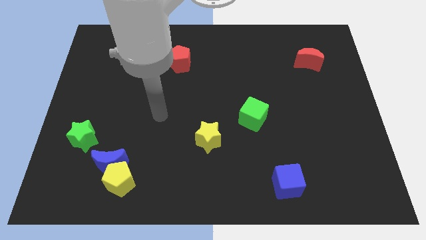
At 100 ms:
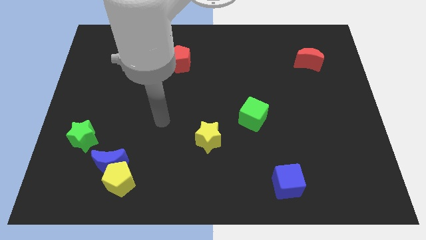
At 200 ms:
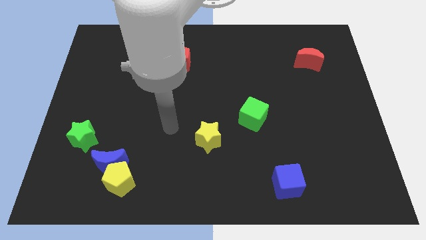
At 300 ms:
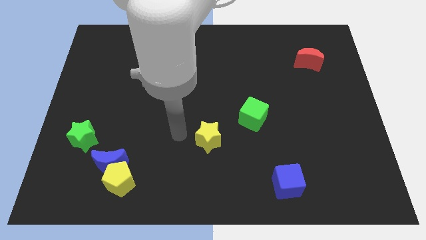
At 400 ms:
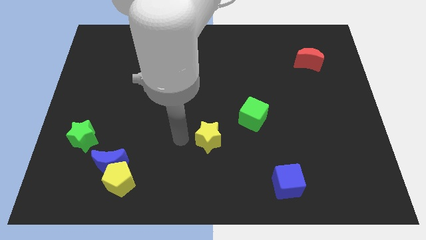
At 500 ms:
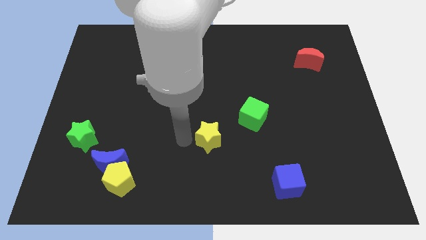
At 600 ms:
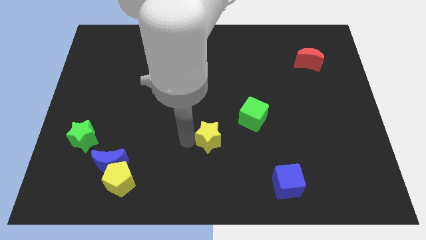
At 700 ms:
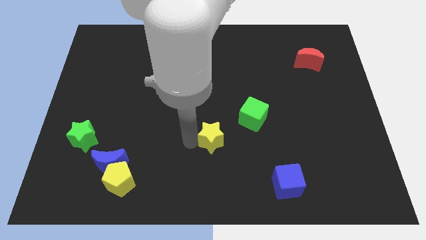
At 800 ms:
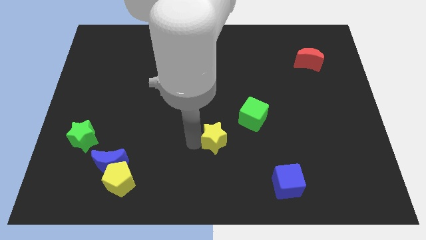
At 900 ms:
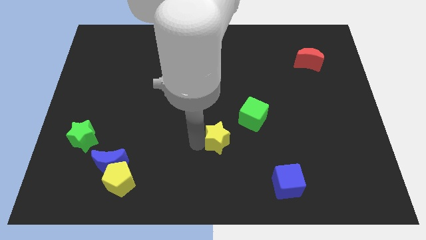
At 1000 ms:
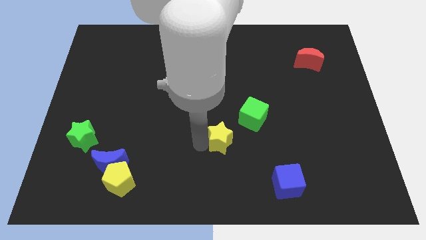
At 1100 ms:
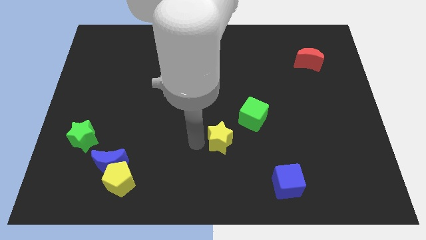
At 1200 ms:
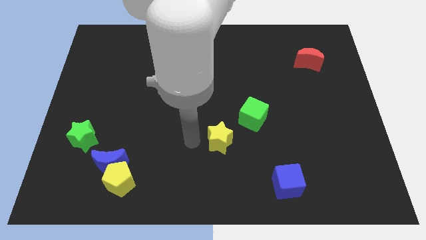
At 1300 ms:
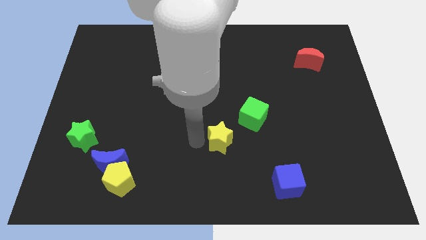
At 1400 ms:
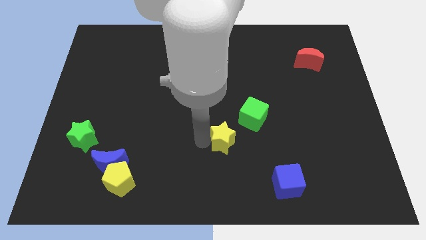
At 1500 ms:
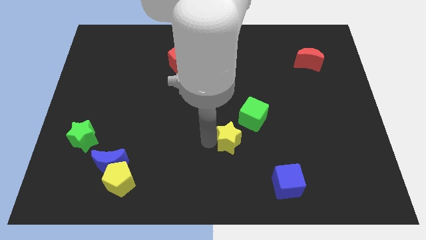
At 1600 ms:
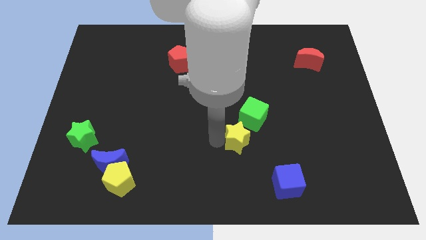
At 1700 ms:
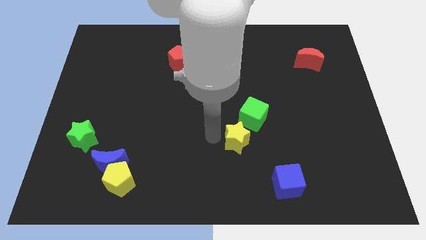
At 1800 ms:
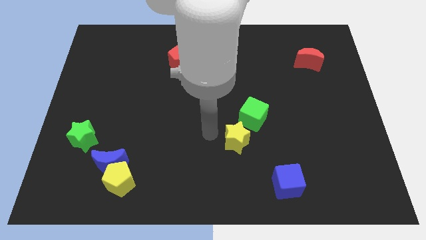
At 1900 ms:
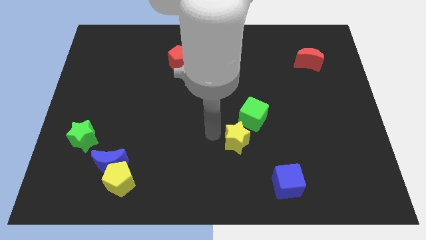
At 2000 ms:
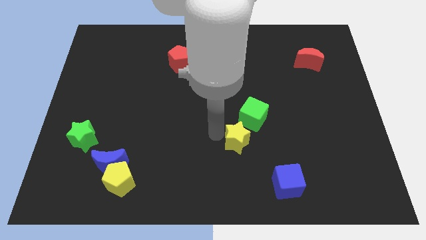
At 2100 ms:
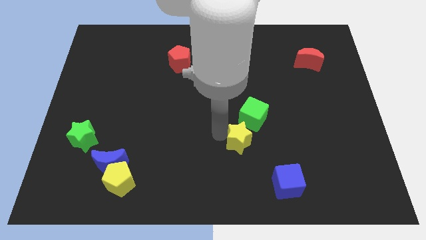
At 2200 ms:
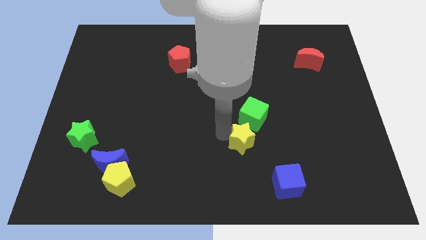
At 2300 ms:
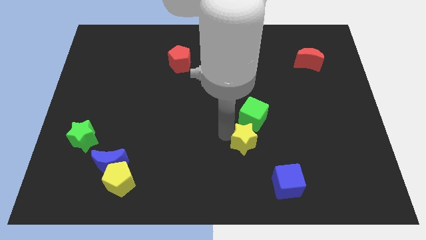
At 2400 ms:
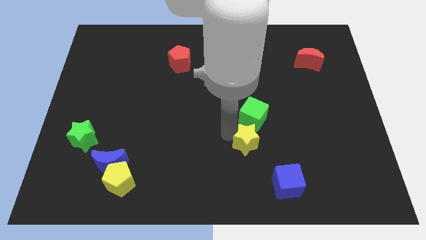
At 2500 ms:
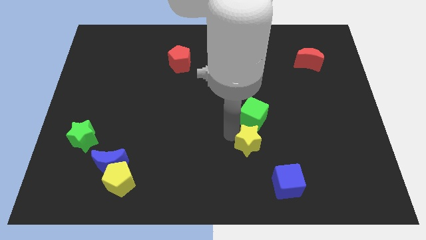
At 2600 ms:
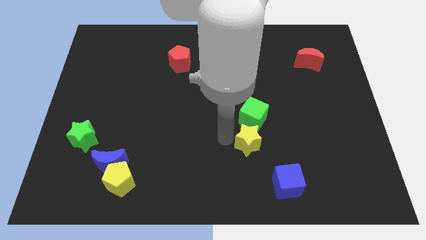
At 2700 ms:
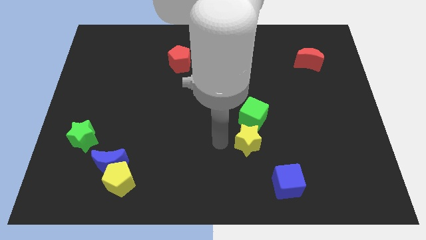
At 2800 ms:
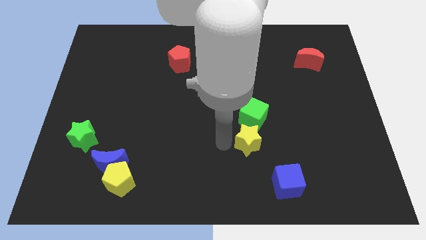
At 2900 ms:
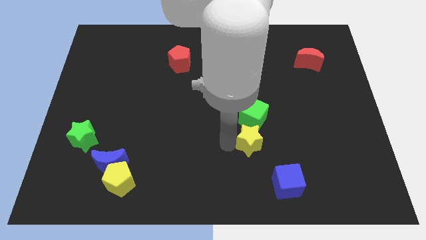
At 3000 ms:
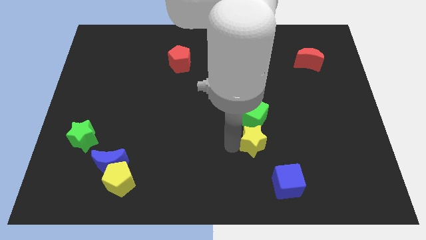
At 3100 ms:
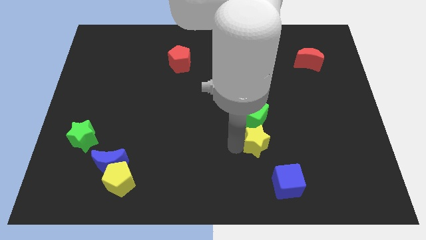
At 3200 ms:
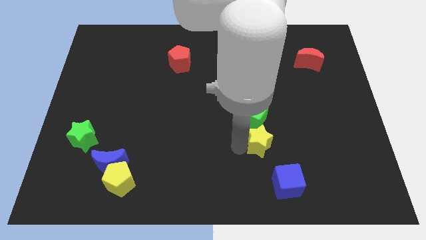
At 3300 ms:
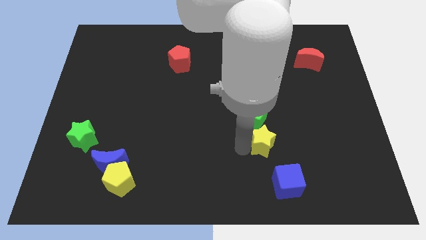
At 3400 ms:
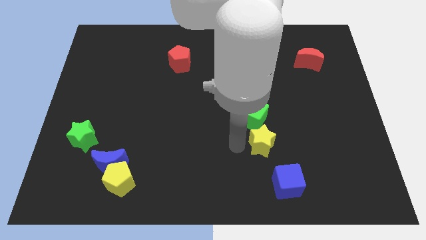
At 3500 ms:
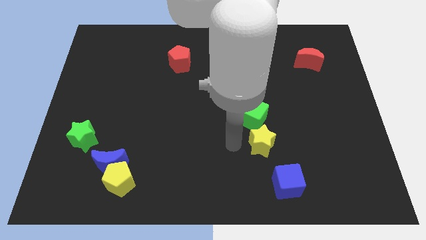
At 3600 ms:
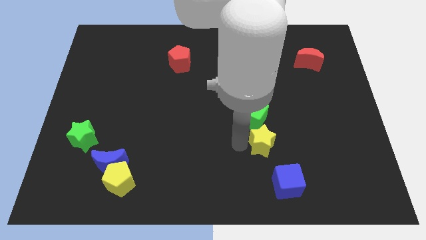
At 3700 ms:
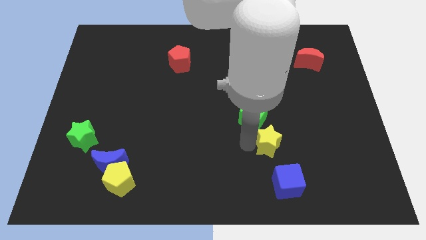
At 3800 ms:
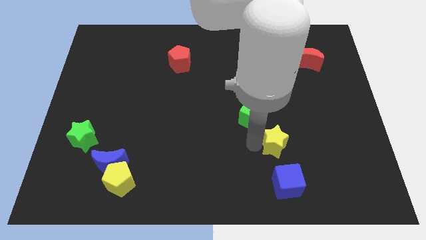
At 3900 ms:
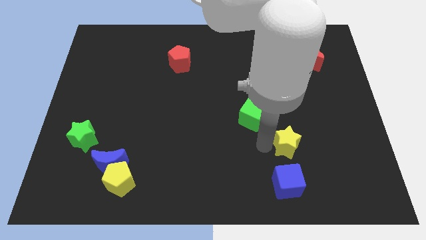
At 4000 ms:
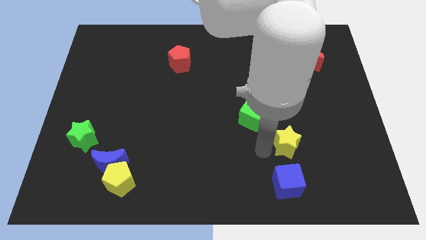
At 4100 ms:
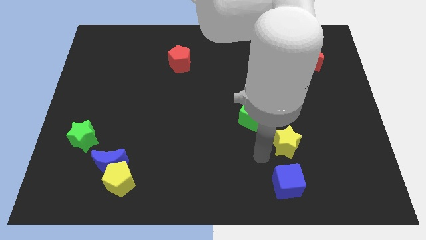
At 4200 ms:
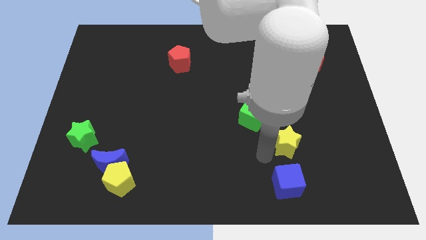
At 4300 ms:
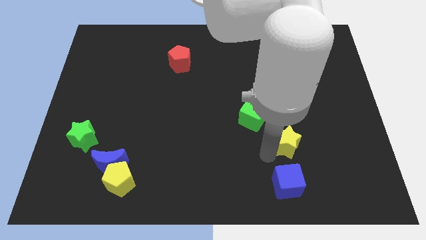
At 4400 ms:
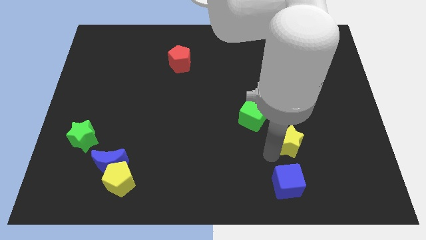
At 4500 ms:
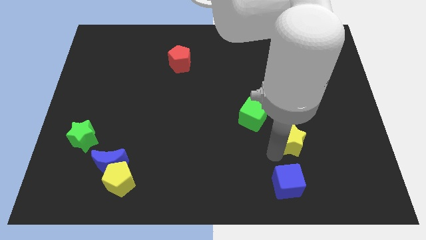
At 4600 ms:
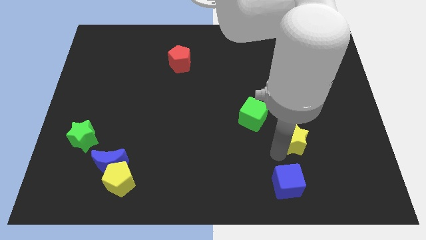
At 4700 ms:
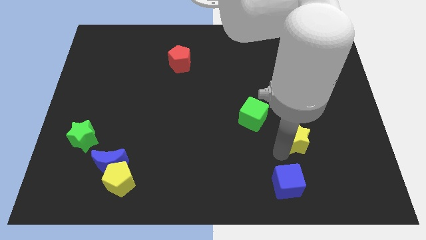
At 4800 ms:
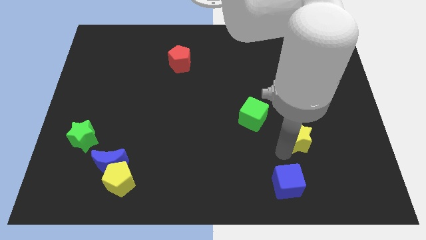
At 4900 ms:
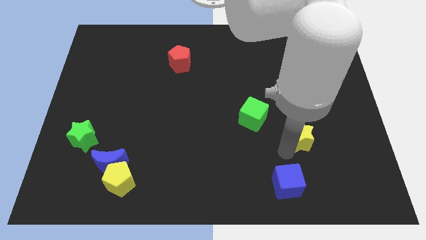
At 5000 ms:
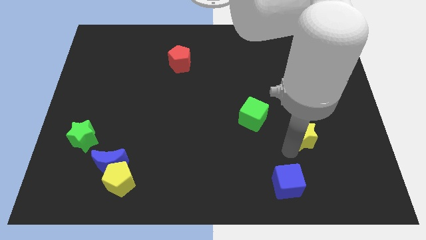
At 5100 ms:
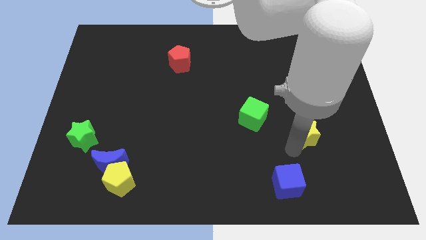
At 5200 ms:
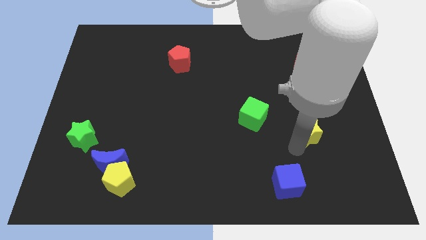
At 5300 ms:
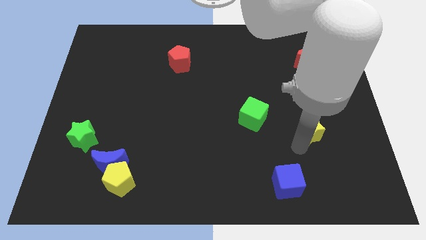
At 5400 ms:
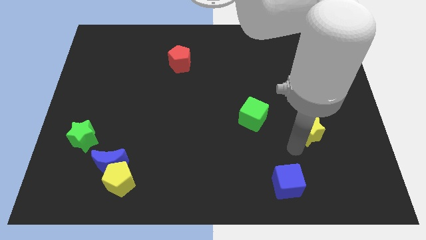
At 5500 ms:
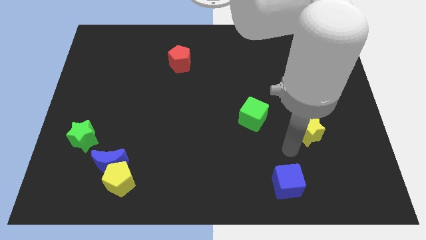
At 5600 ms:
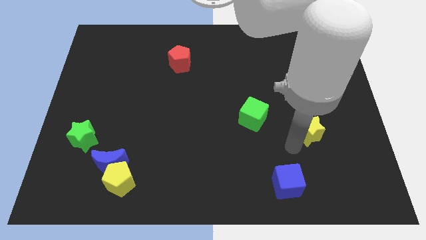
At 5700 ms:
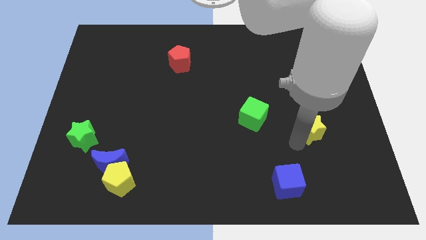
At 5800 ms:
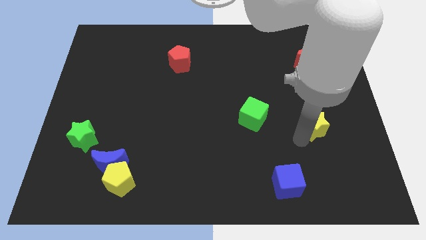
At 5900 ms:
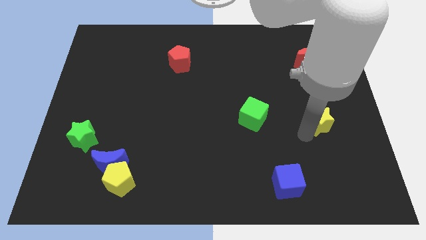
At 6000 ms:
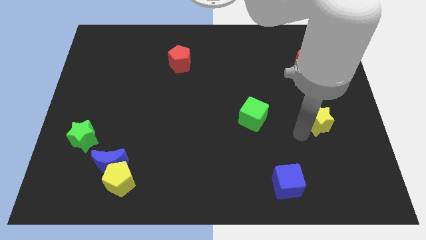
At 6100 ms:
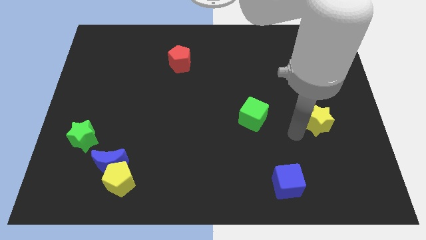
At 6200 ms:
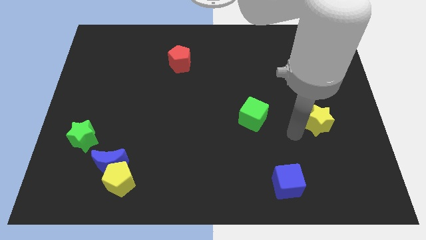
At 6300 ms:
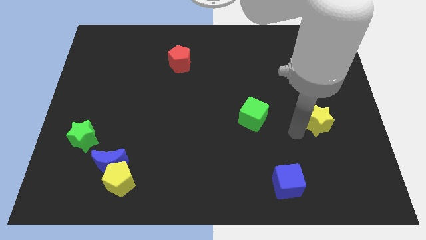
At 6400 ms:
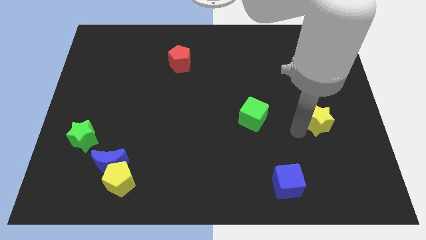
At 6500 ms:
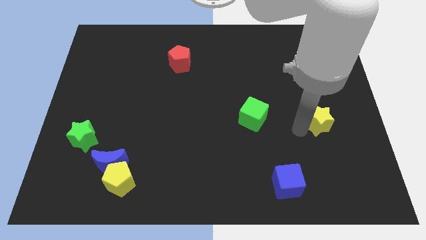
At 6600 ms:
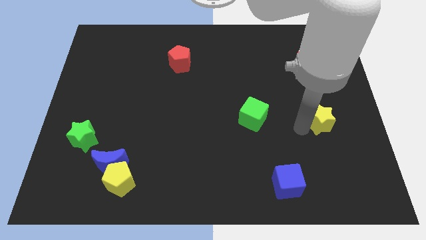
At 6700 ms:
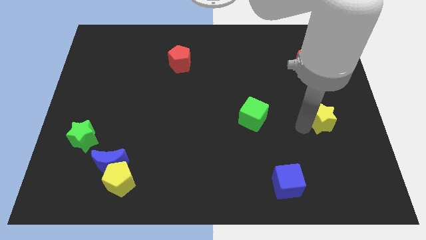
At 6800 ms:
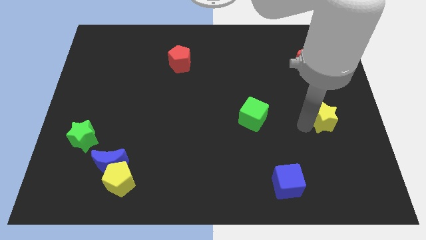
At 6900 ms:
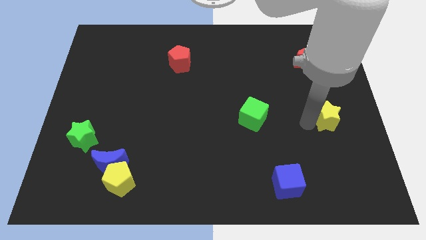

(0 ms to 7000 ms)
push the yellow star to the center right

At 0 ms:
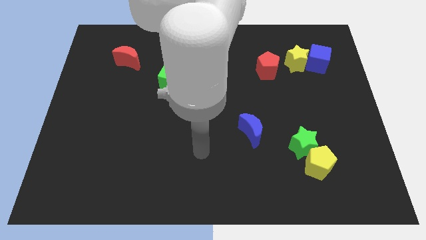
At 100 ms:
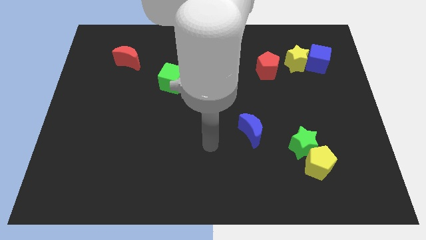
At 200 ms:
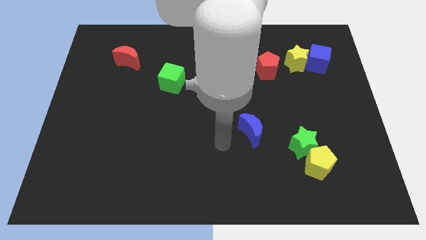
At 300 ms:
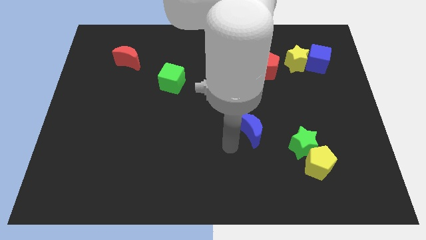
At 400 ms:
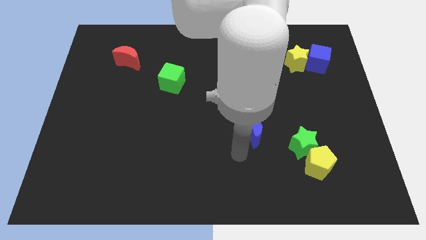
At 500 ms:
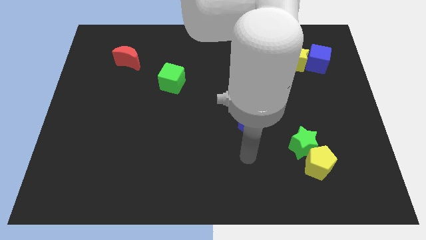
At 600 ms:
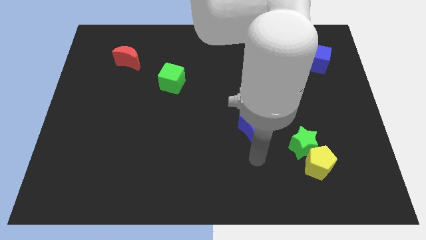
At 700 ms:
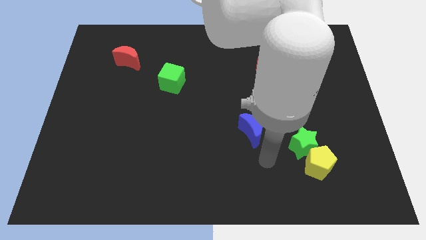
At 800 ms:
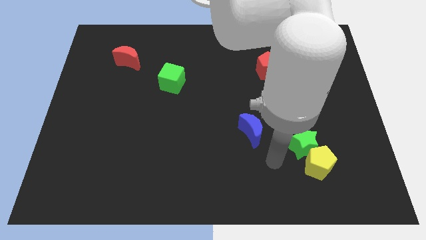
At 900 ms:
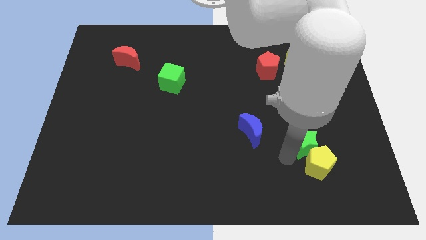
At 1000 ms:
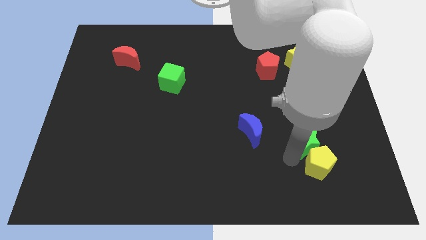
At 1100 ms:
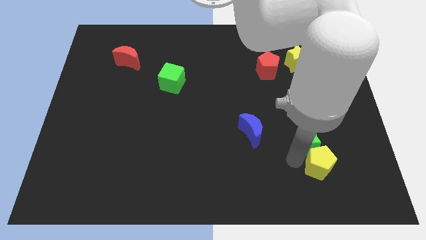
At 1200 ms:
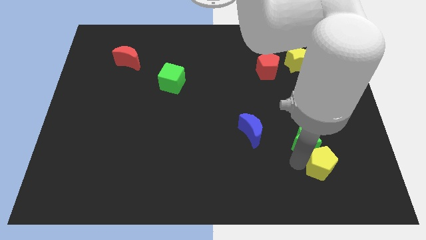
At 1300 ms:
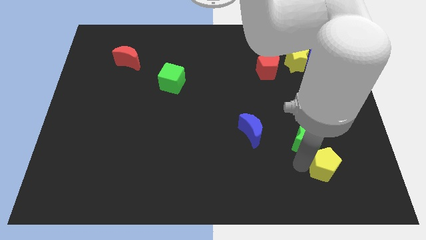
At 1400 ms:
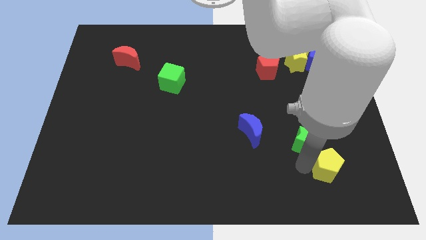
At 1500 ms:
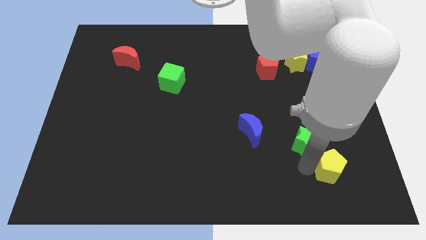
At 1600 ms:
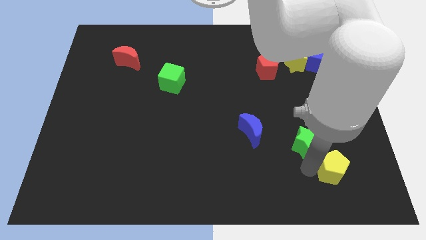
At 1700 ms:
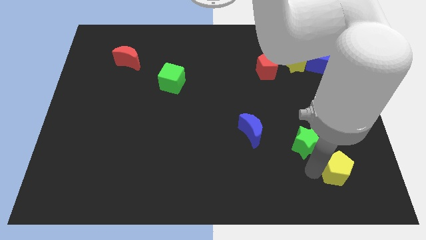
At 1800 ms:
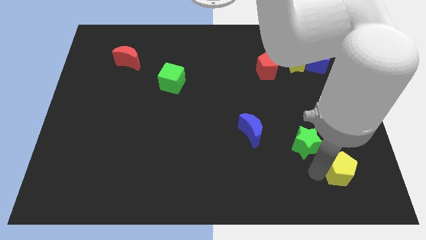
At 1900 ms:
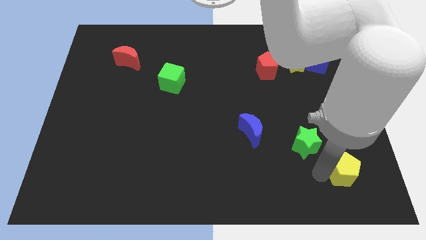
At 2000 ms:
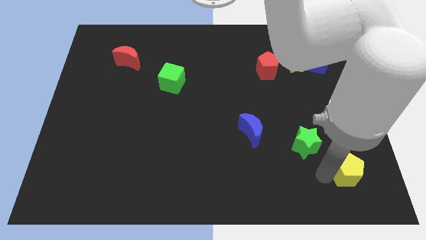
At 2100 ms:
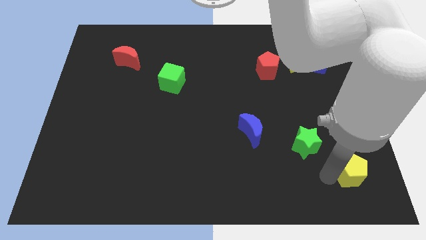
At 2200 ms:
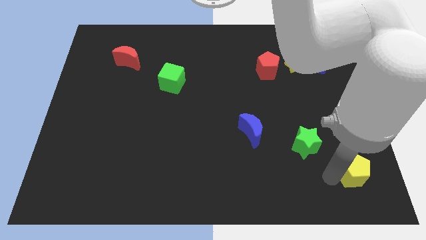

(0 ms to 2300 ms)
put the yellow pentagon to the bottom right
